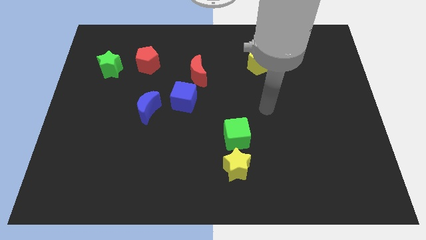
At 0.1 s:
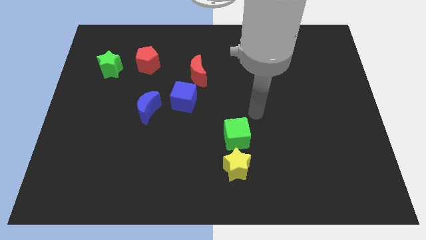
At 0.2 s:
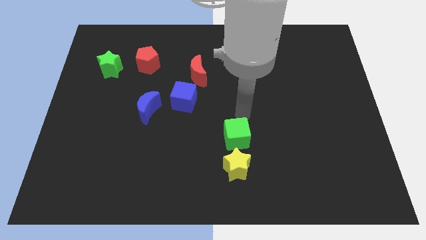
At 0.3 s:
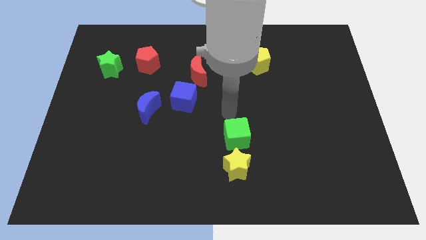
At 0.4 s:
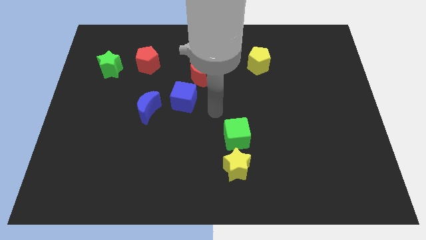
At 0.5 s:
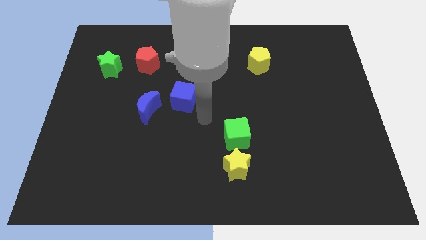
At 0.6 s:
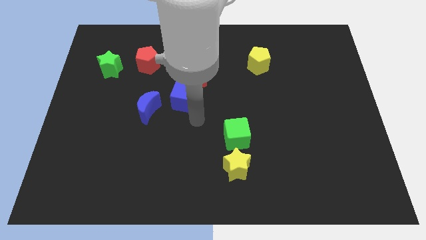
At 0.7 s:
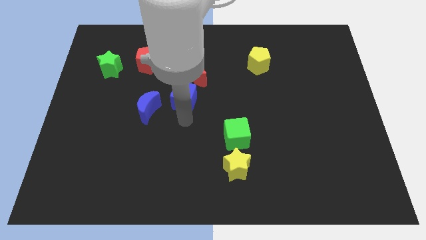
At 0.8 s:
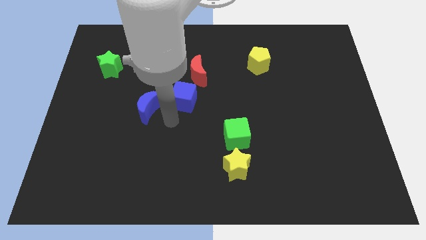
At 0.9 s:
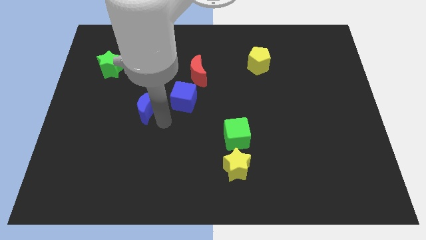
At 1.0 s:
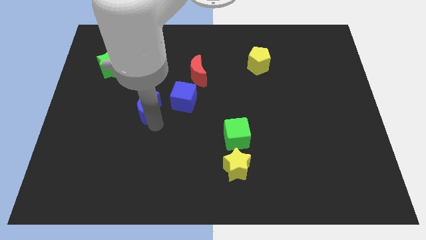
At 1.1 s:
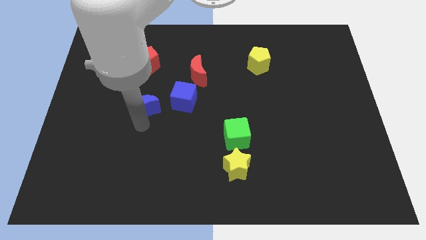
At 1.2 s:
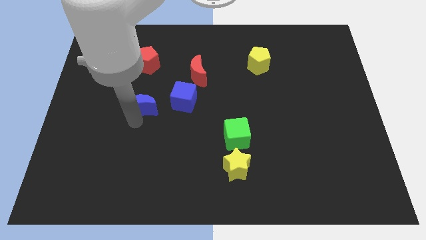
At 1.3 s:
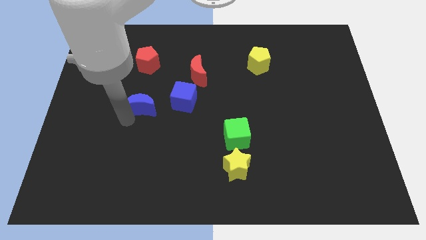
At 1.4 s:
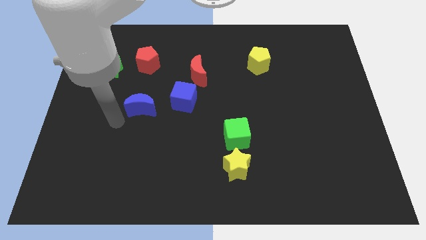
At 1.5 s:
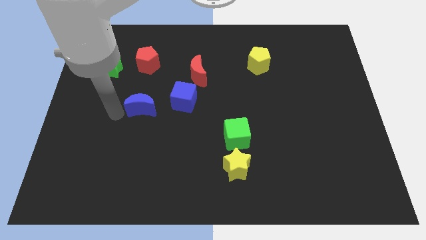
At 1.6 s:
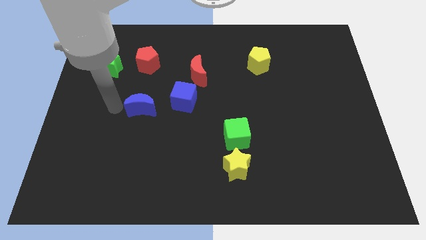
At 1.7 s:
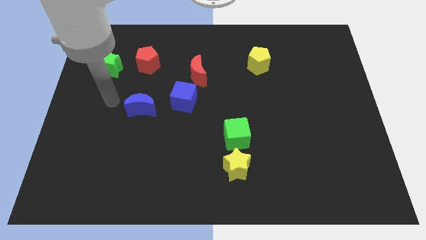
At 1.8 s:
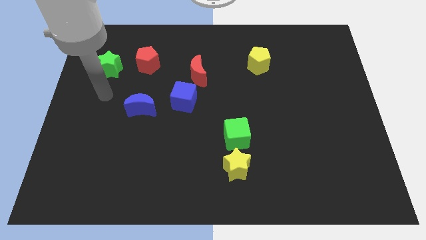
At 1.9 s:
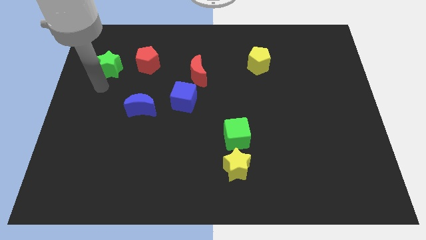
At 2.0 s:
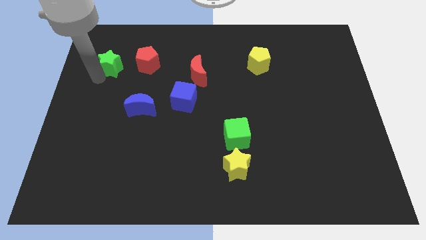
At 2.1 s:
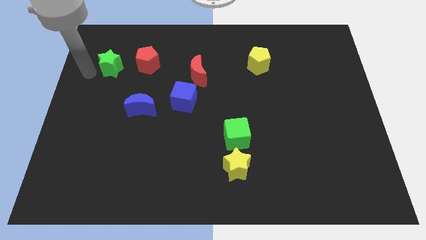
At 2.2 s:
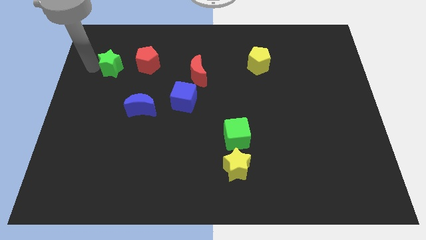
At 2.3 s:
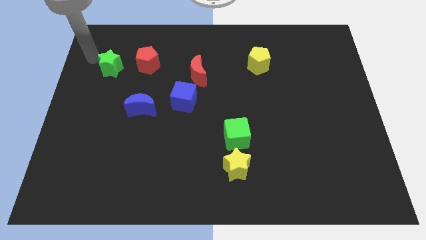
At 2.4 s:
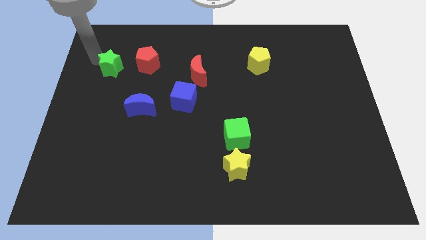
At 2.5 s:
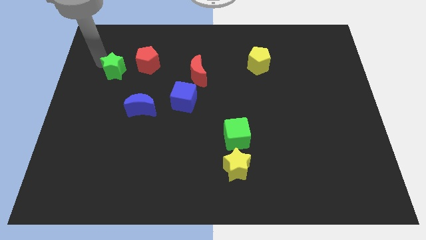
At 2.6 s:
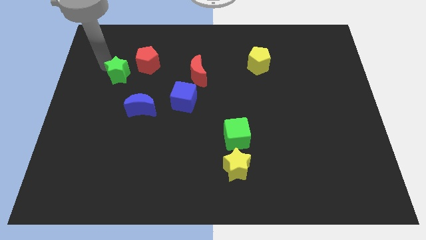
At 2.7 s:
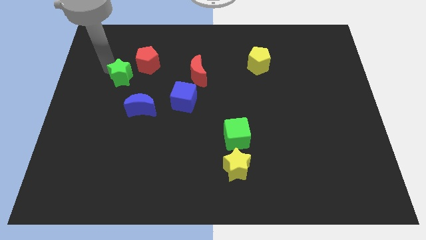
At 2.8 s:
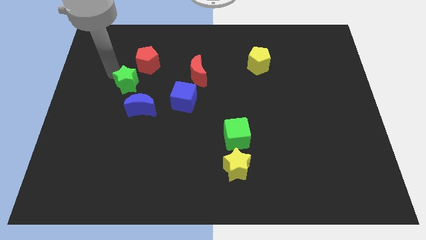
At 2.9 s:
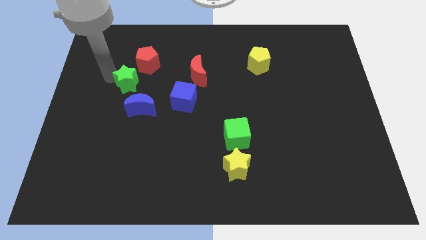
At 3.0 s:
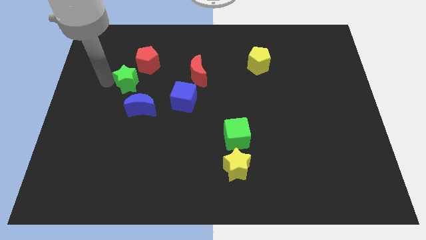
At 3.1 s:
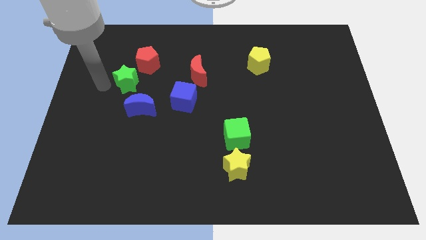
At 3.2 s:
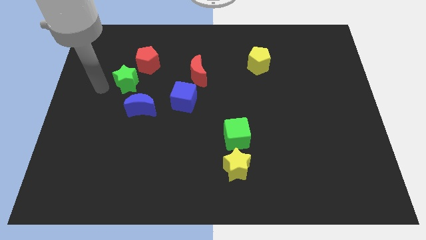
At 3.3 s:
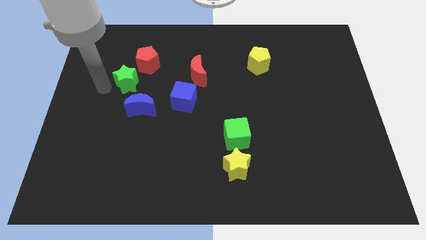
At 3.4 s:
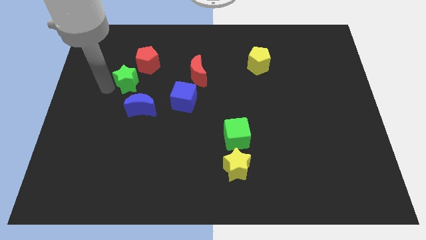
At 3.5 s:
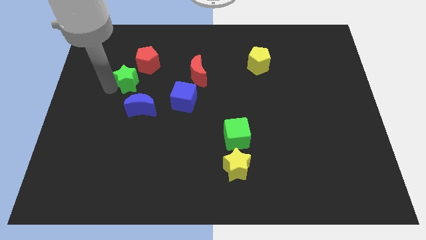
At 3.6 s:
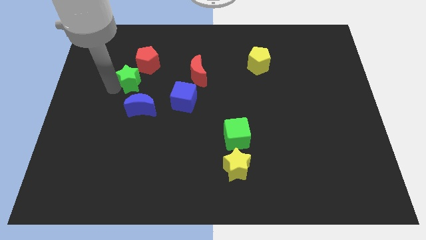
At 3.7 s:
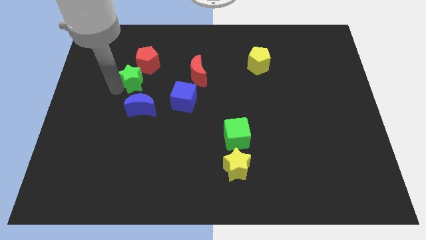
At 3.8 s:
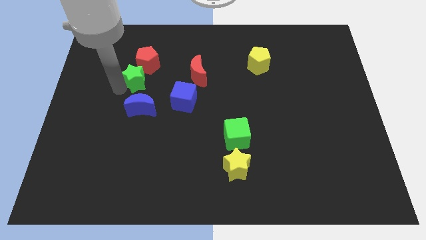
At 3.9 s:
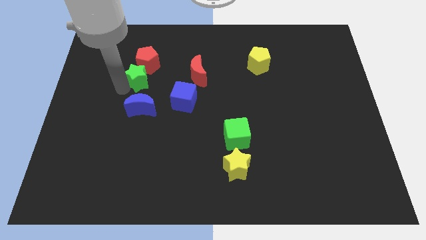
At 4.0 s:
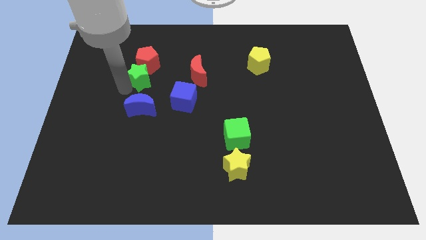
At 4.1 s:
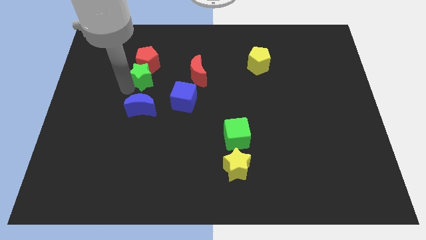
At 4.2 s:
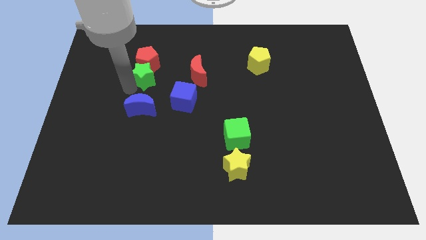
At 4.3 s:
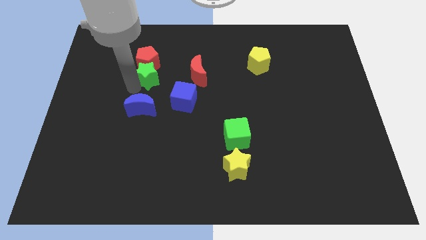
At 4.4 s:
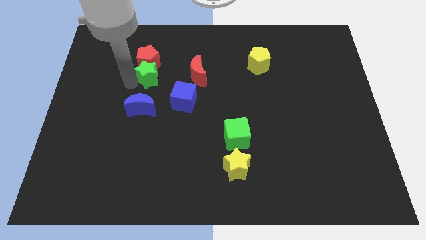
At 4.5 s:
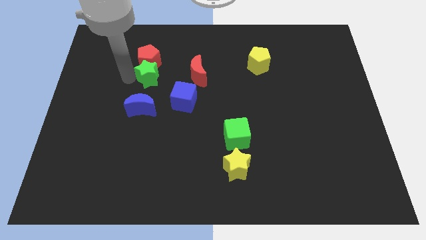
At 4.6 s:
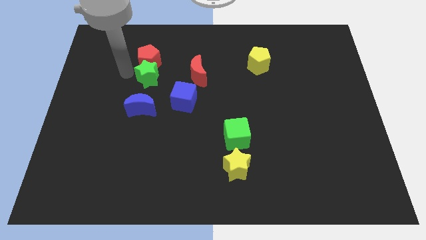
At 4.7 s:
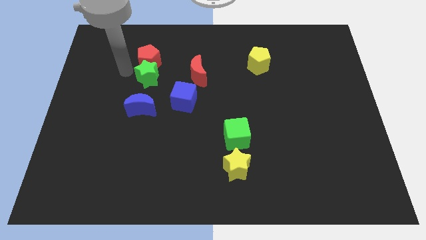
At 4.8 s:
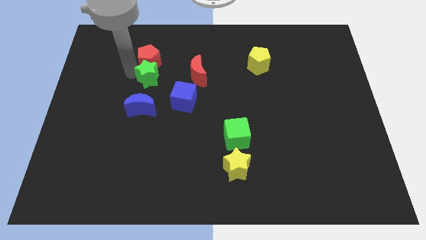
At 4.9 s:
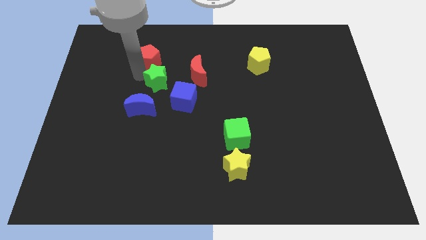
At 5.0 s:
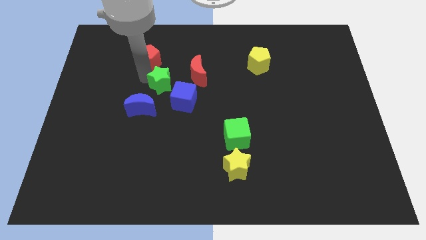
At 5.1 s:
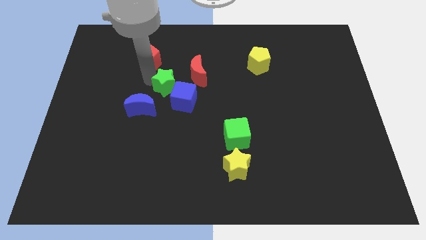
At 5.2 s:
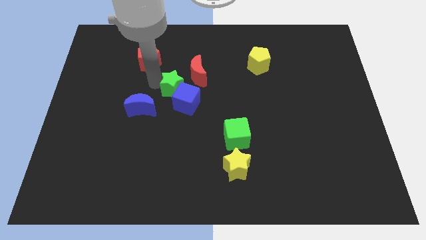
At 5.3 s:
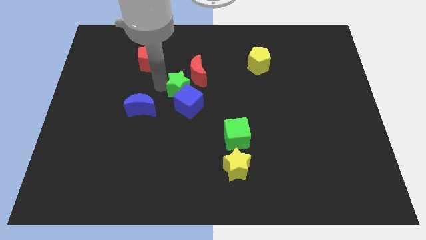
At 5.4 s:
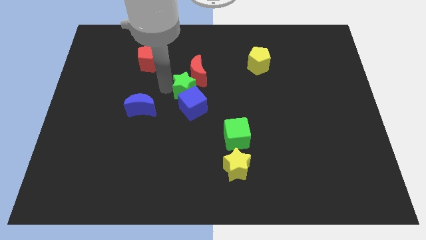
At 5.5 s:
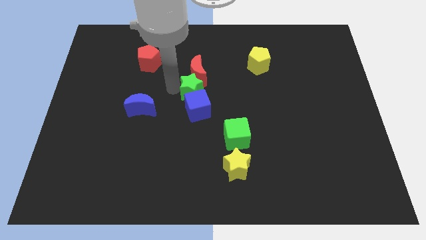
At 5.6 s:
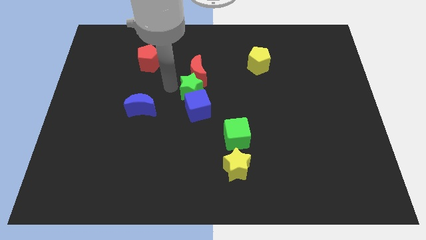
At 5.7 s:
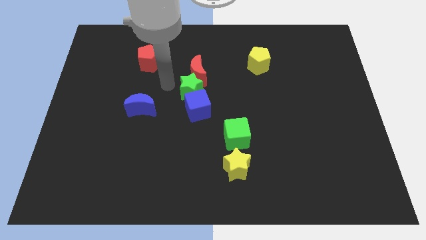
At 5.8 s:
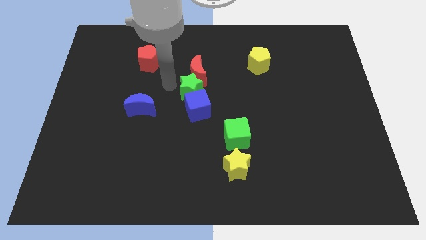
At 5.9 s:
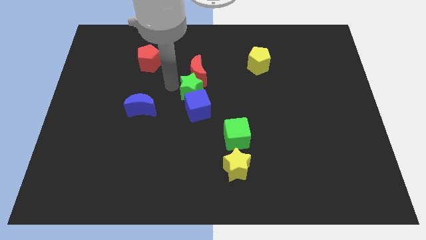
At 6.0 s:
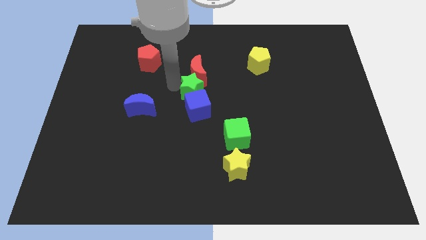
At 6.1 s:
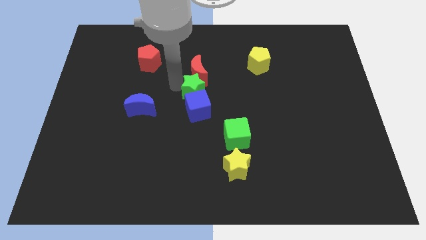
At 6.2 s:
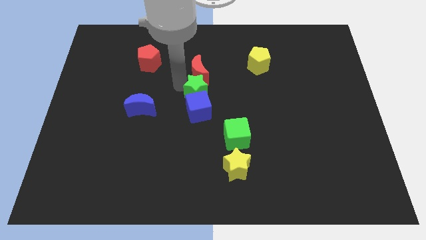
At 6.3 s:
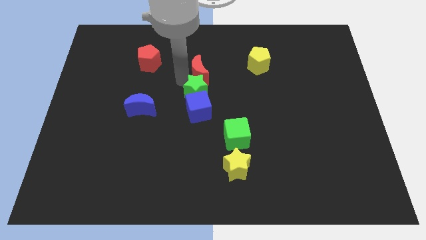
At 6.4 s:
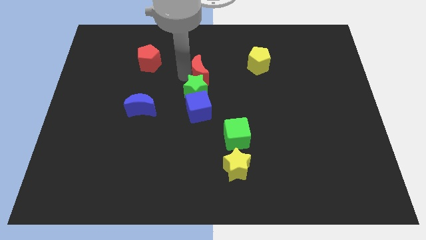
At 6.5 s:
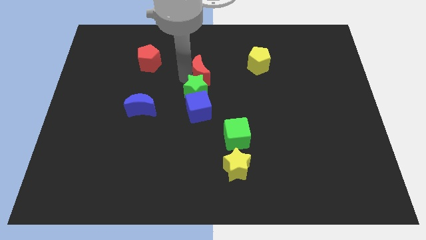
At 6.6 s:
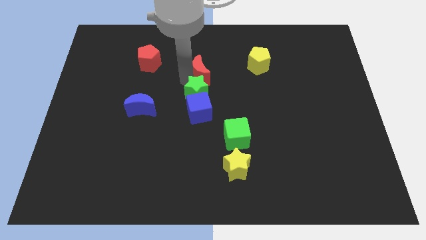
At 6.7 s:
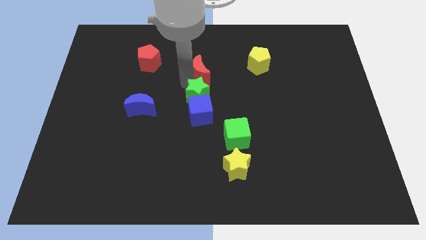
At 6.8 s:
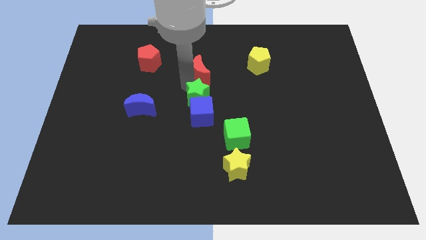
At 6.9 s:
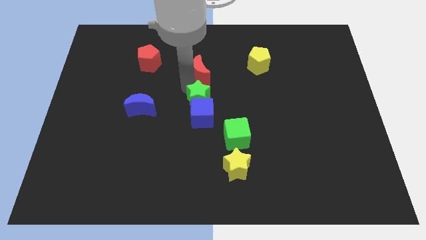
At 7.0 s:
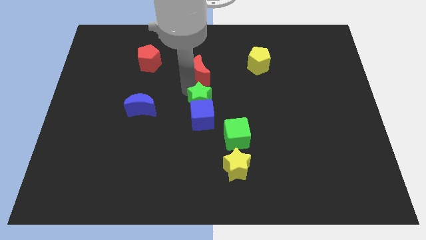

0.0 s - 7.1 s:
push the green star to the top left side of the green cube
